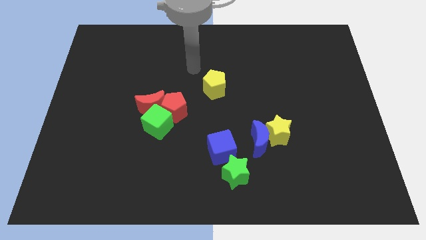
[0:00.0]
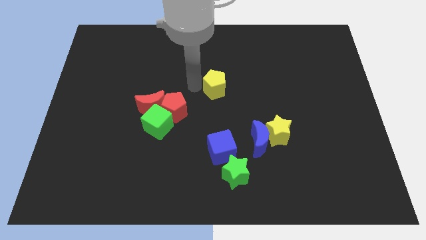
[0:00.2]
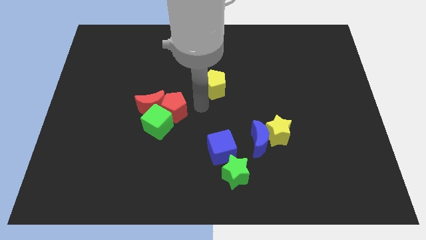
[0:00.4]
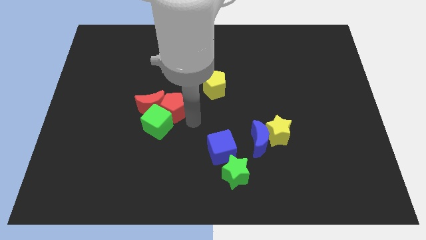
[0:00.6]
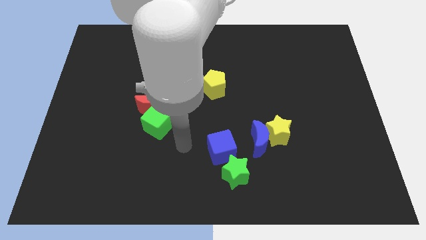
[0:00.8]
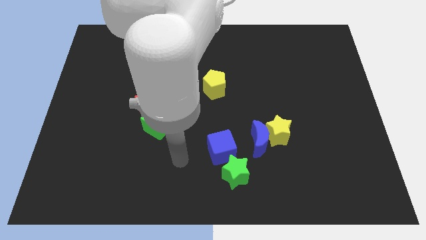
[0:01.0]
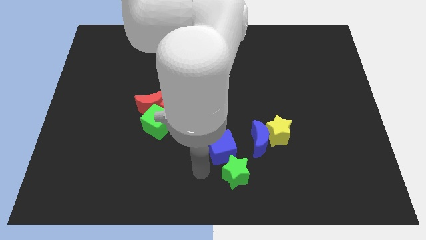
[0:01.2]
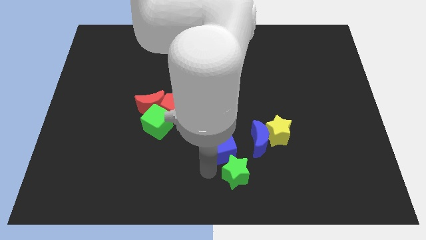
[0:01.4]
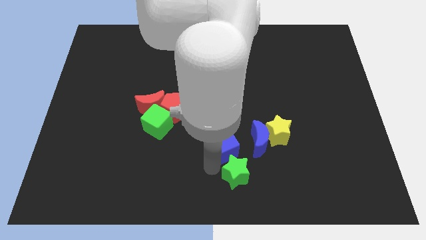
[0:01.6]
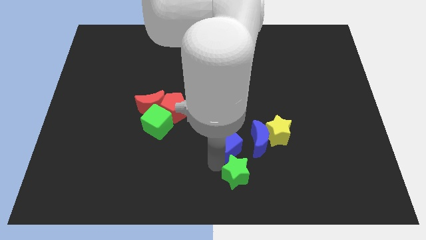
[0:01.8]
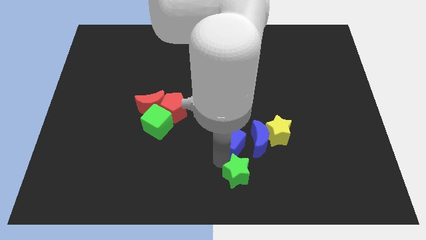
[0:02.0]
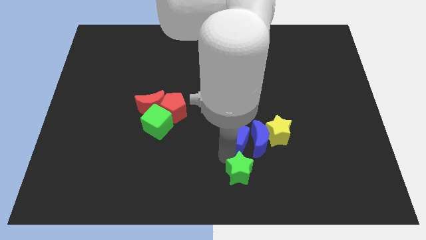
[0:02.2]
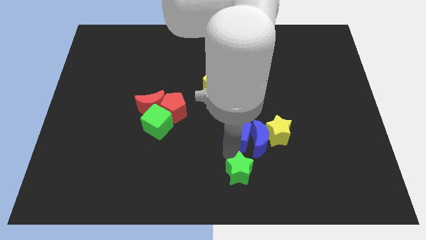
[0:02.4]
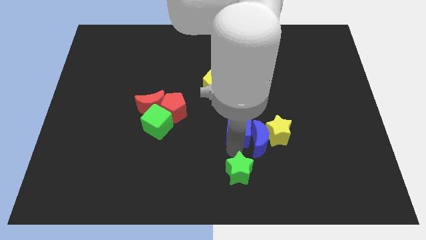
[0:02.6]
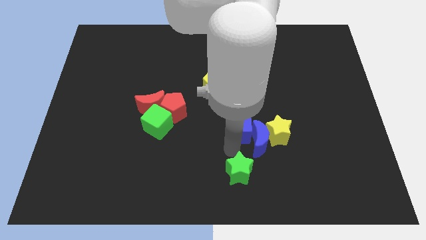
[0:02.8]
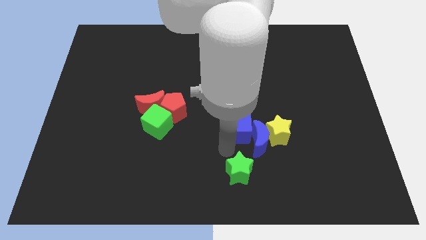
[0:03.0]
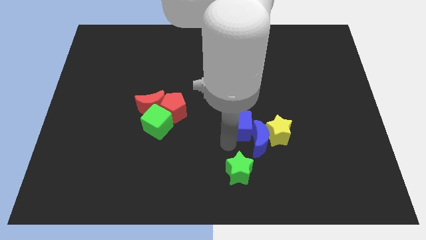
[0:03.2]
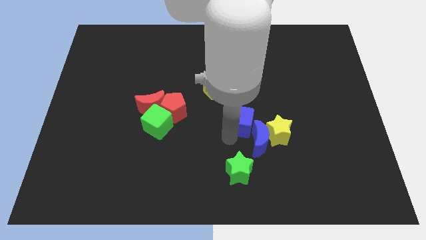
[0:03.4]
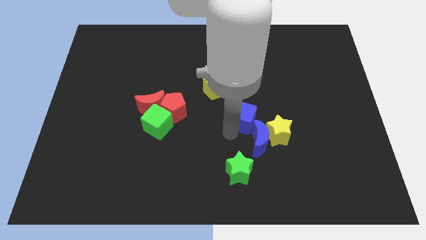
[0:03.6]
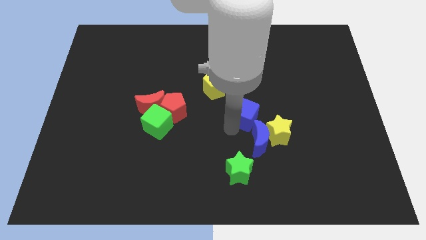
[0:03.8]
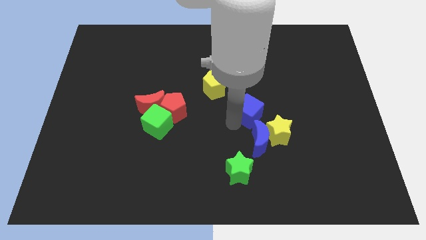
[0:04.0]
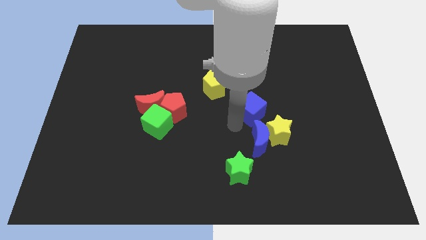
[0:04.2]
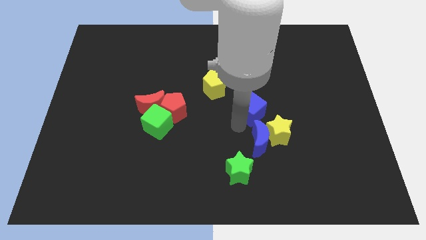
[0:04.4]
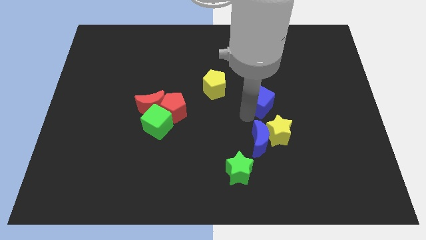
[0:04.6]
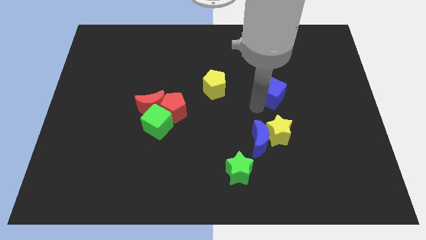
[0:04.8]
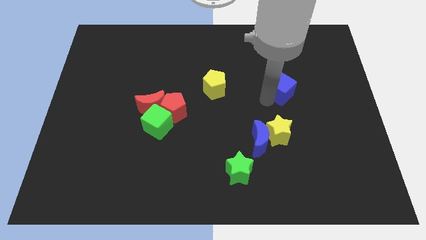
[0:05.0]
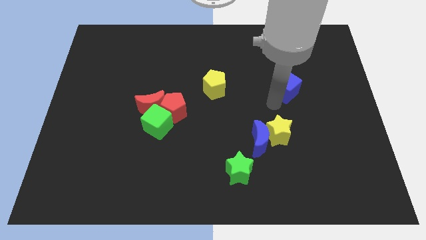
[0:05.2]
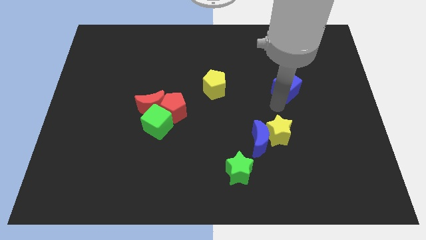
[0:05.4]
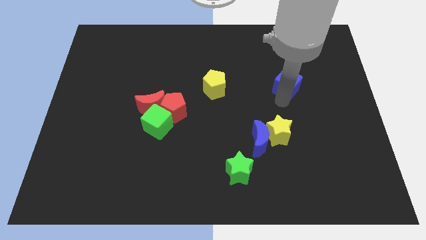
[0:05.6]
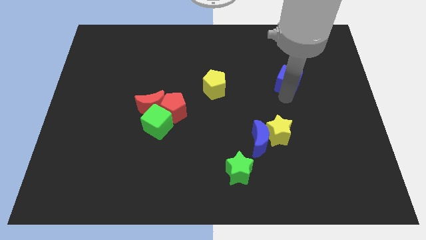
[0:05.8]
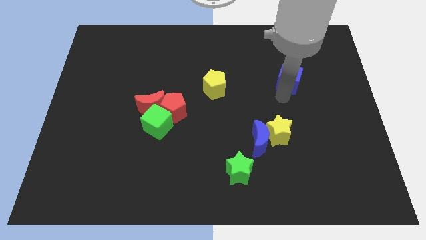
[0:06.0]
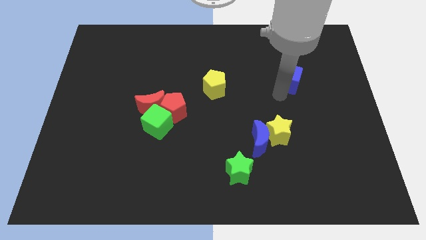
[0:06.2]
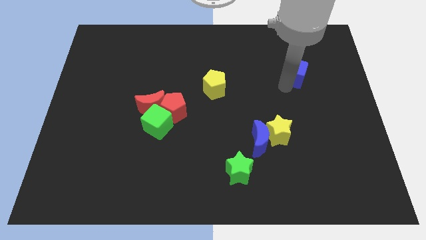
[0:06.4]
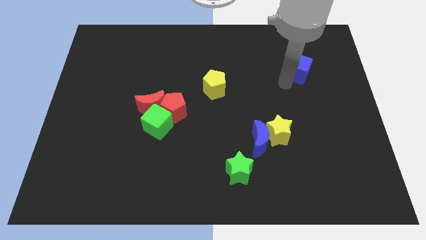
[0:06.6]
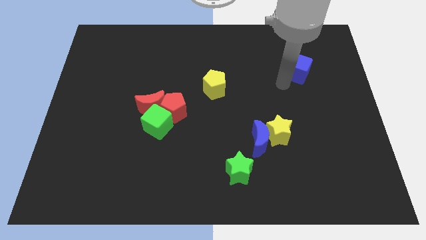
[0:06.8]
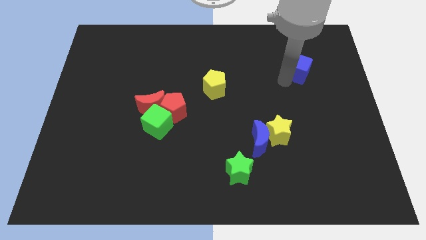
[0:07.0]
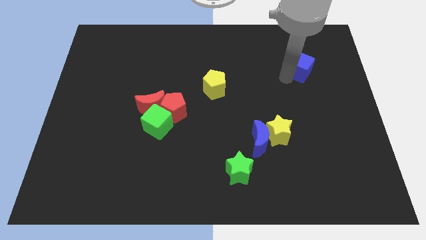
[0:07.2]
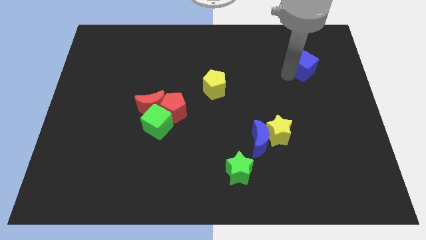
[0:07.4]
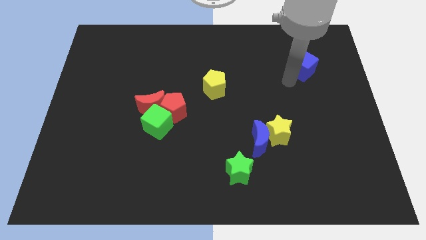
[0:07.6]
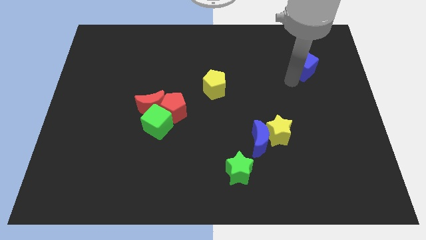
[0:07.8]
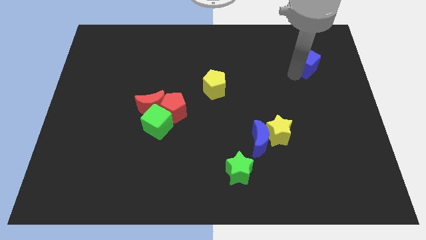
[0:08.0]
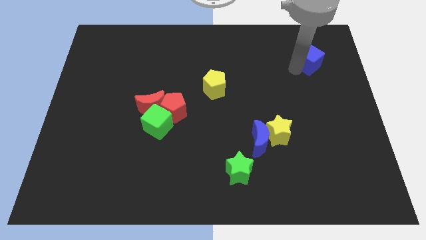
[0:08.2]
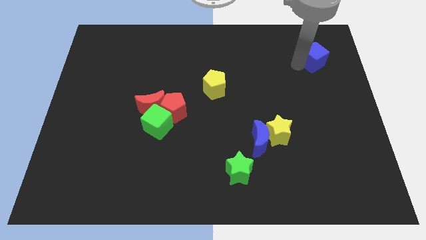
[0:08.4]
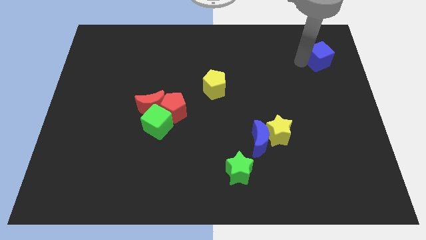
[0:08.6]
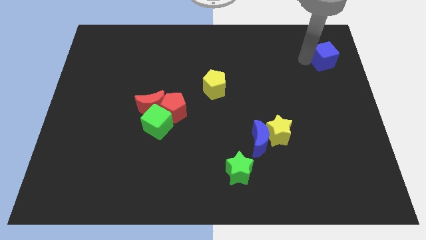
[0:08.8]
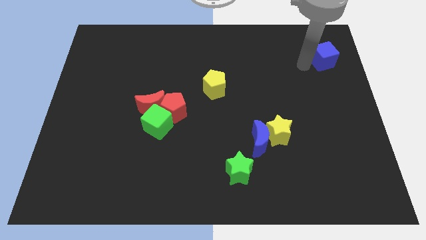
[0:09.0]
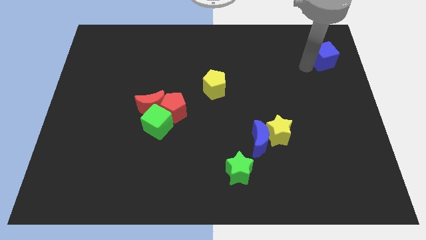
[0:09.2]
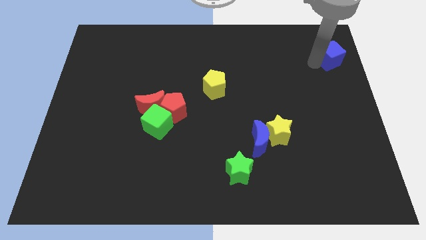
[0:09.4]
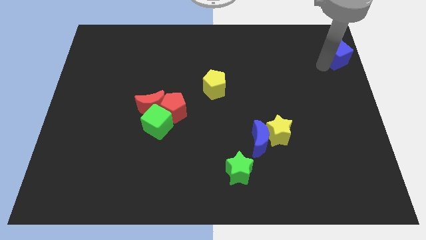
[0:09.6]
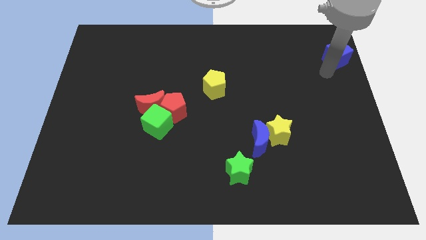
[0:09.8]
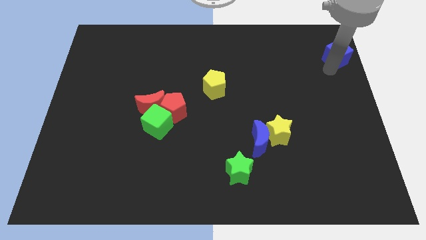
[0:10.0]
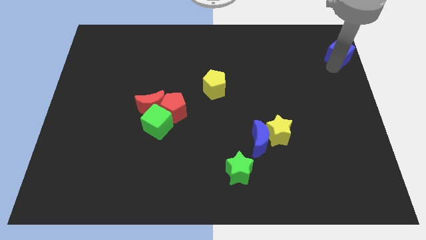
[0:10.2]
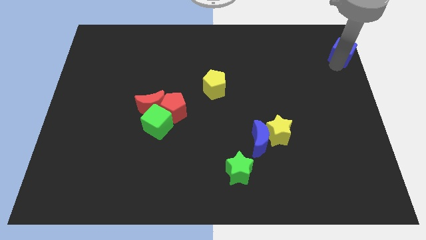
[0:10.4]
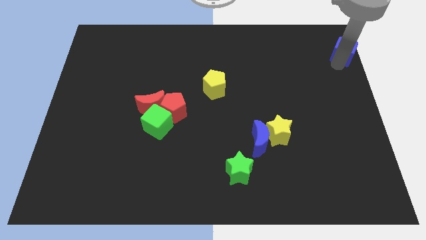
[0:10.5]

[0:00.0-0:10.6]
push the blue cube to the top right
